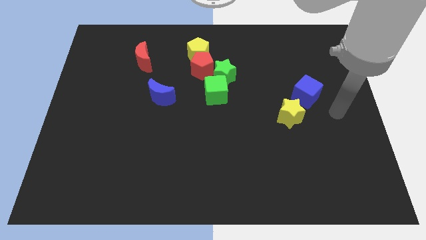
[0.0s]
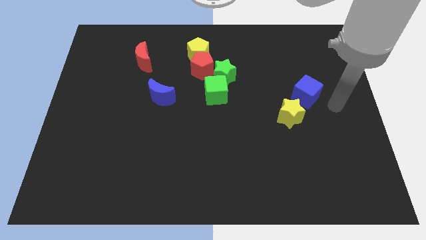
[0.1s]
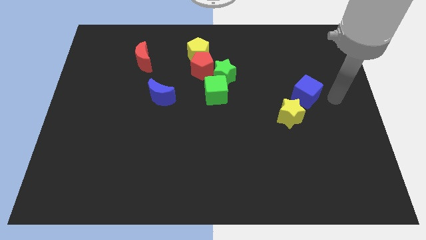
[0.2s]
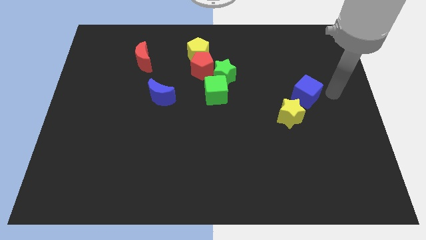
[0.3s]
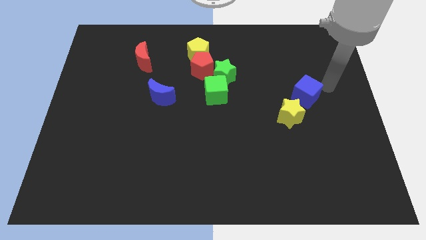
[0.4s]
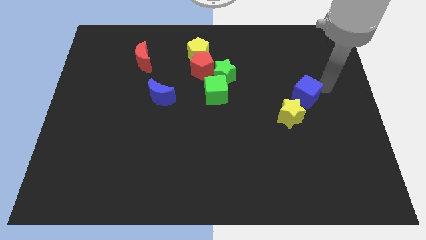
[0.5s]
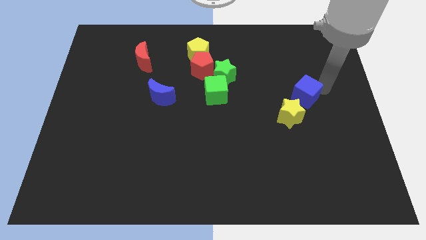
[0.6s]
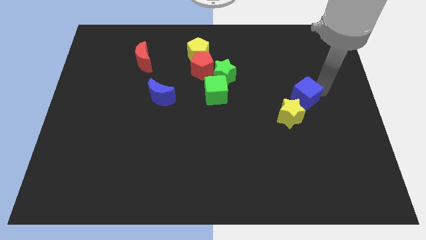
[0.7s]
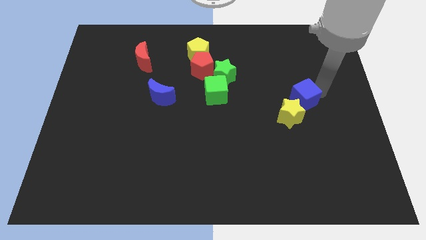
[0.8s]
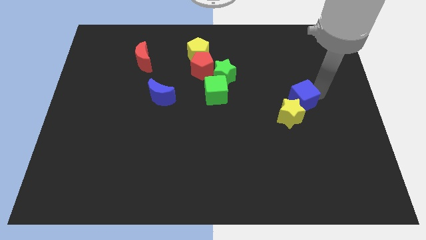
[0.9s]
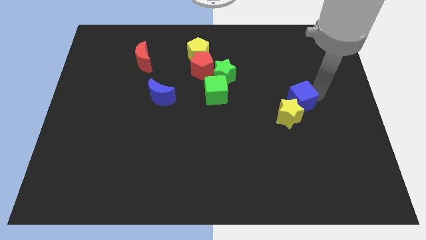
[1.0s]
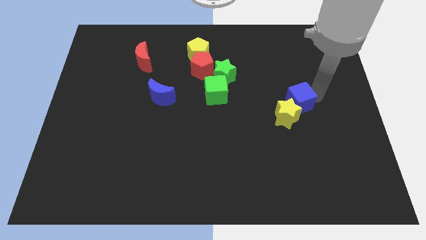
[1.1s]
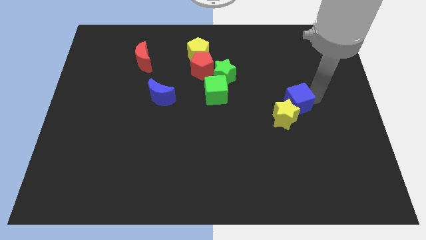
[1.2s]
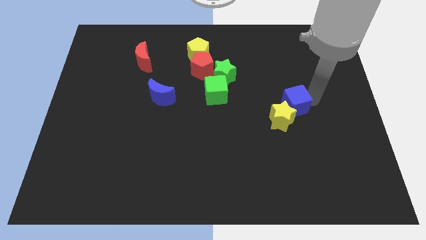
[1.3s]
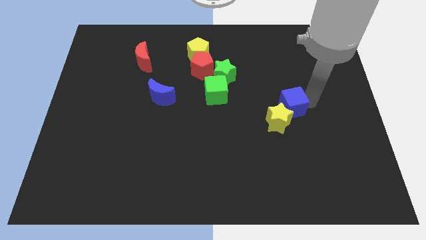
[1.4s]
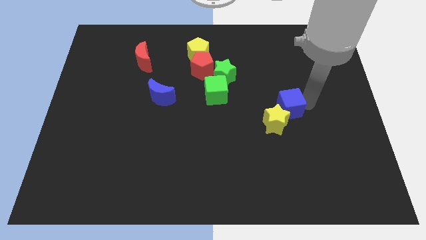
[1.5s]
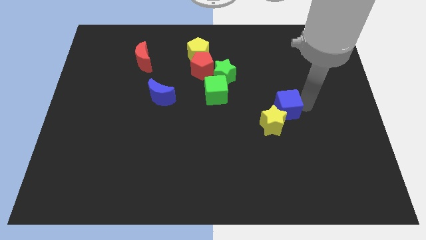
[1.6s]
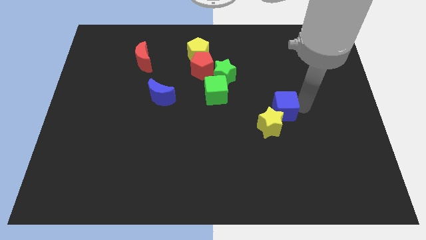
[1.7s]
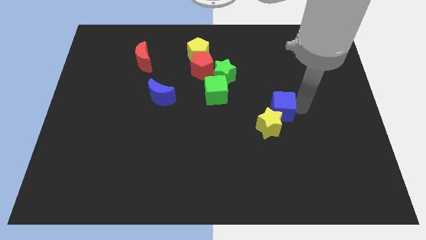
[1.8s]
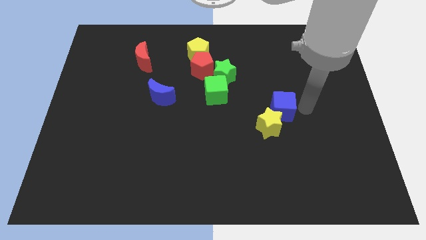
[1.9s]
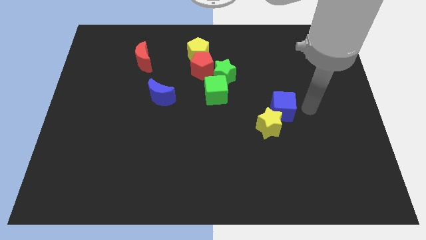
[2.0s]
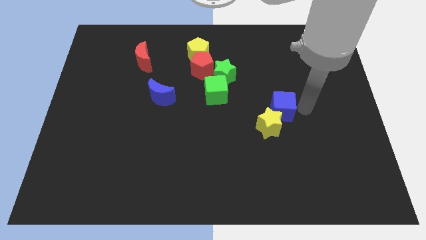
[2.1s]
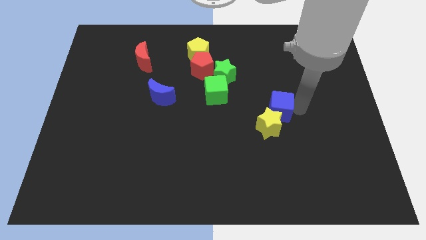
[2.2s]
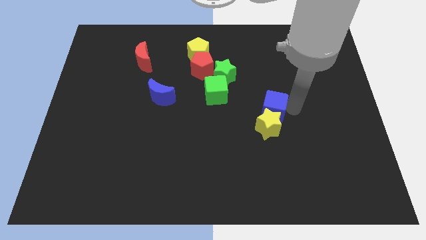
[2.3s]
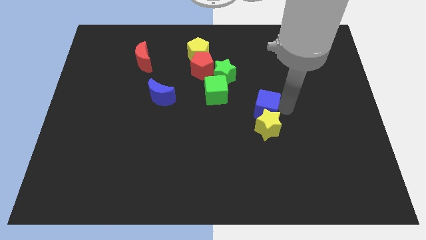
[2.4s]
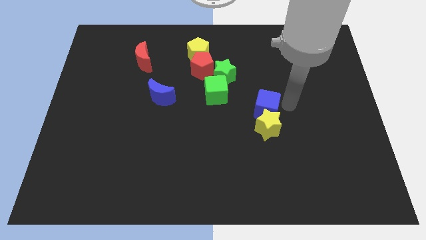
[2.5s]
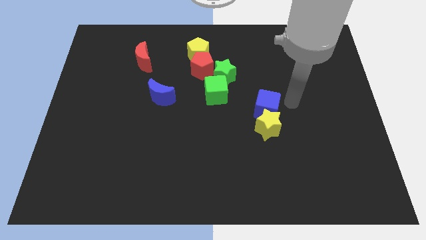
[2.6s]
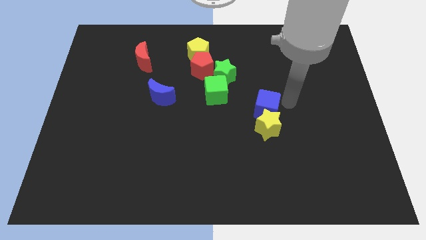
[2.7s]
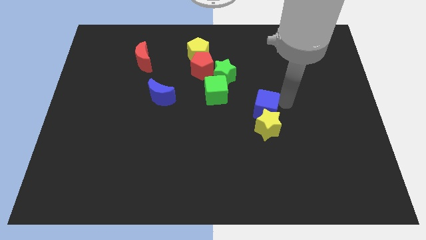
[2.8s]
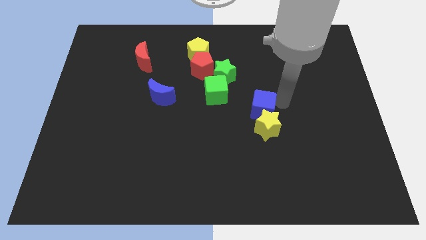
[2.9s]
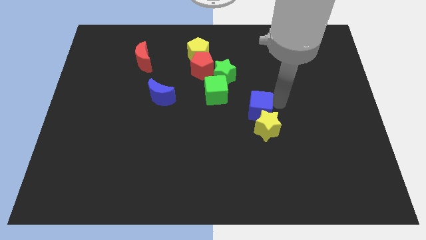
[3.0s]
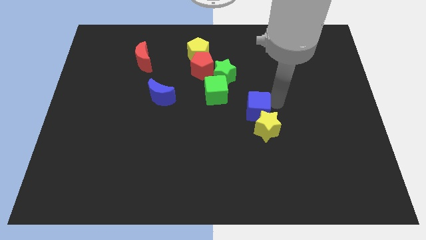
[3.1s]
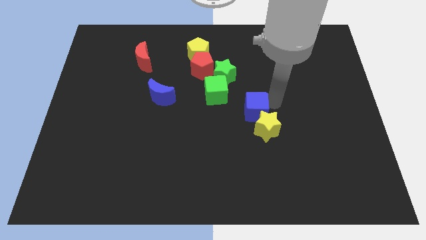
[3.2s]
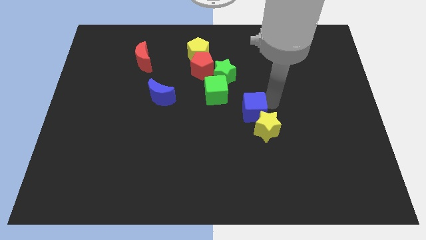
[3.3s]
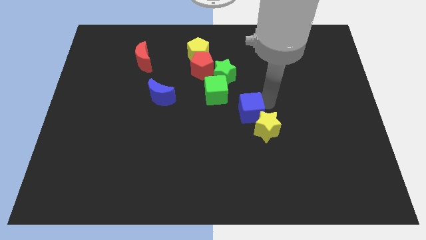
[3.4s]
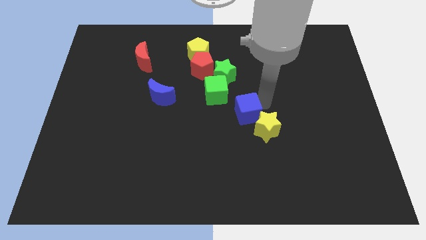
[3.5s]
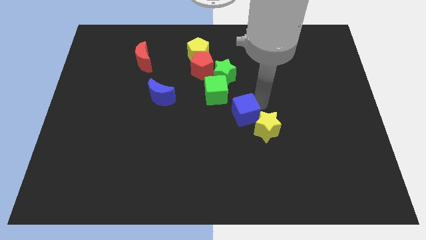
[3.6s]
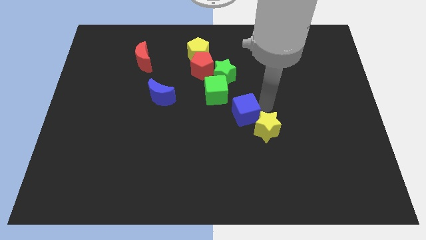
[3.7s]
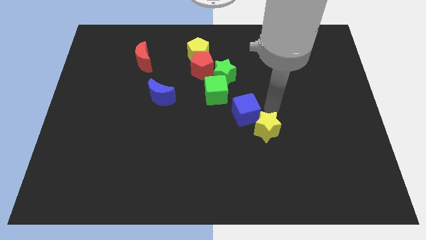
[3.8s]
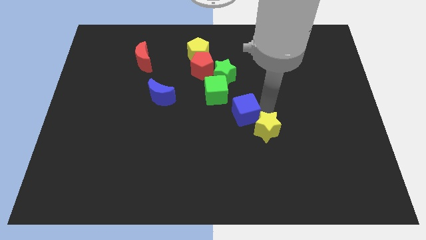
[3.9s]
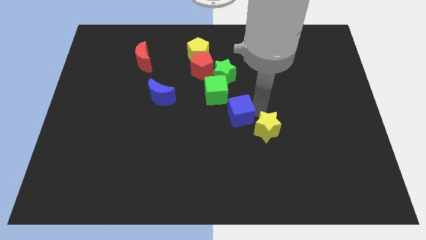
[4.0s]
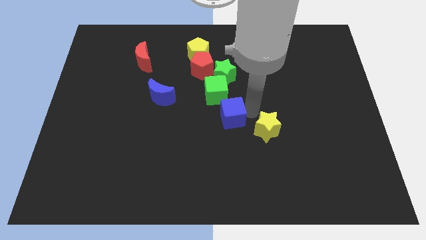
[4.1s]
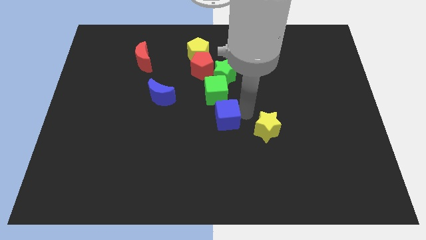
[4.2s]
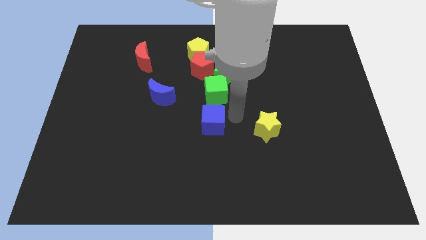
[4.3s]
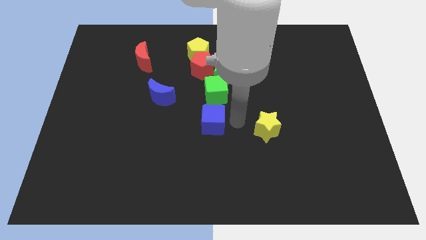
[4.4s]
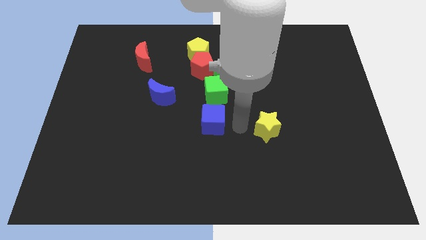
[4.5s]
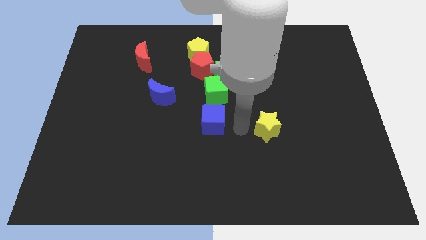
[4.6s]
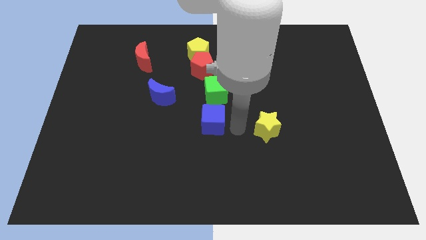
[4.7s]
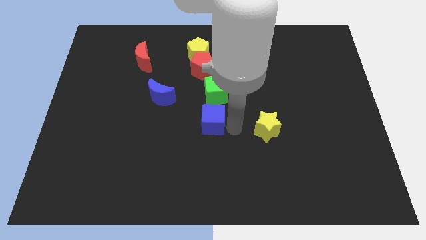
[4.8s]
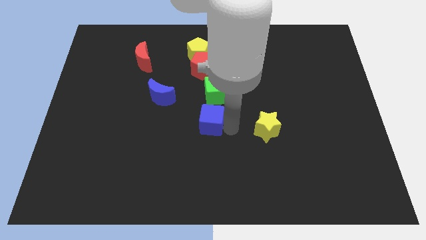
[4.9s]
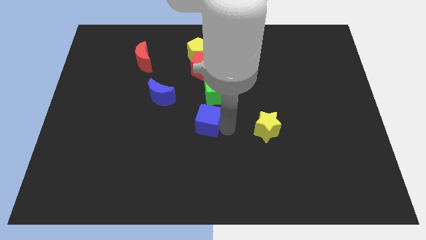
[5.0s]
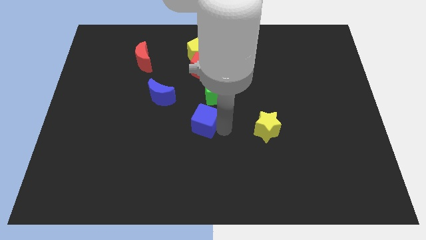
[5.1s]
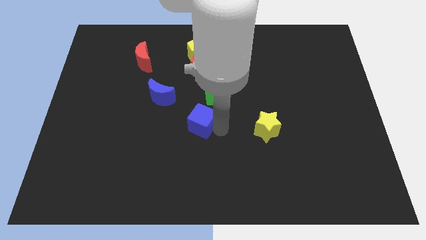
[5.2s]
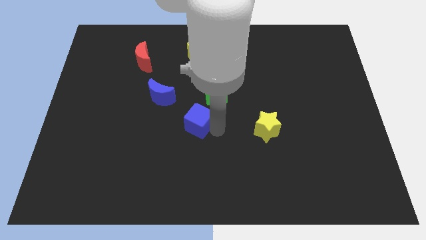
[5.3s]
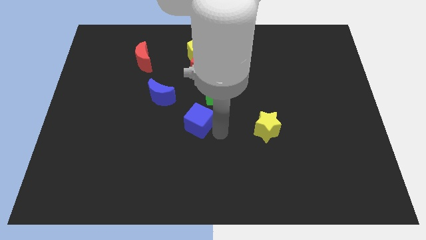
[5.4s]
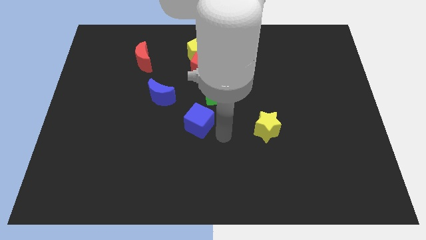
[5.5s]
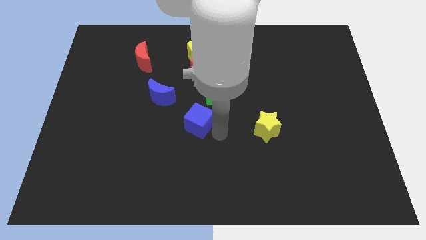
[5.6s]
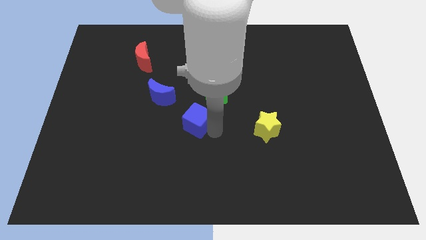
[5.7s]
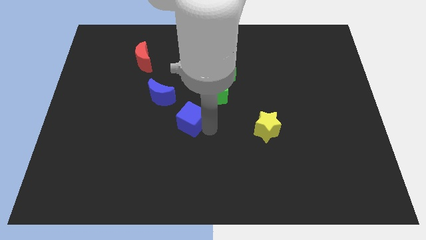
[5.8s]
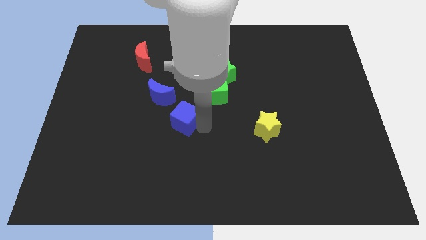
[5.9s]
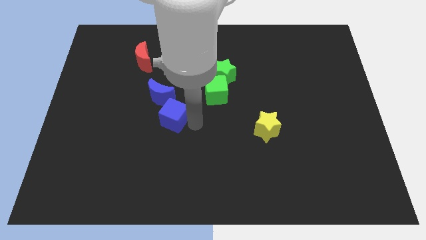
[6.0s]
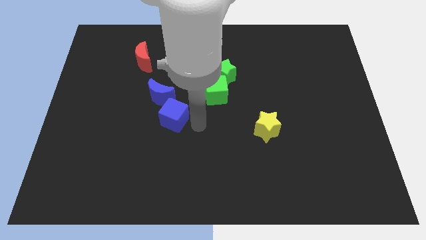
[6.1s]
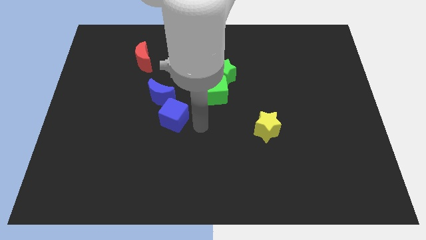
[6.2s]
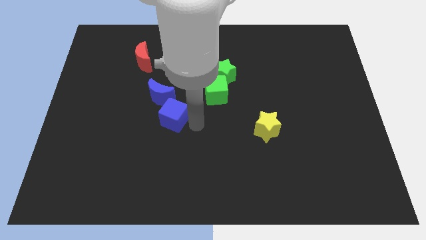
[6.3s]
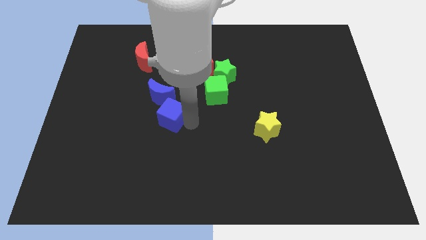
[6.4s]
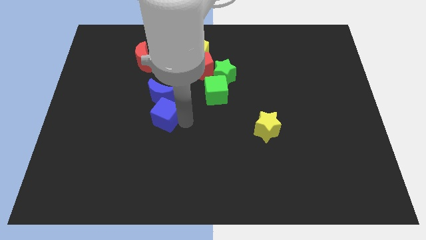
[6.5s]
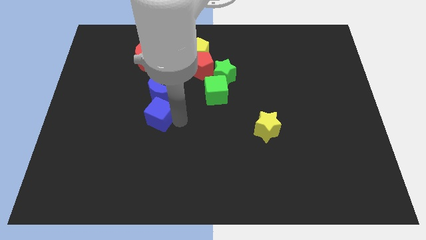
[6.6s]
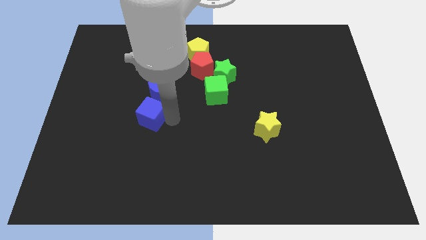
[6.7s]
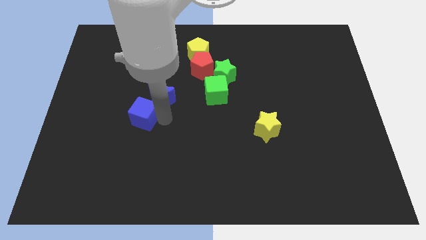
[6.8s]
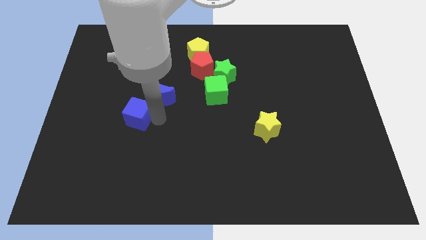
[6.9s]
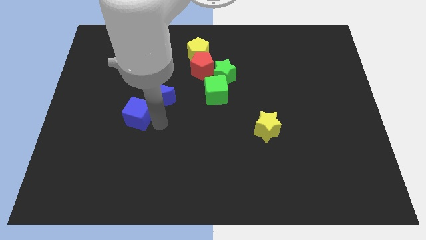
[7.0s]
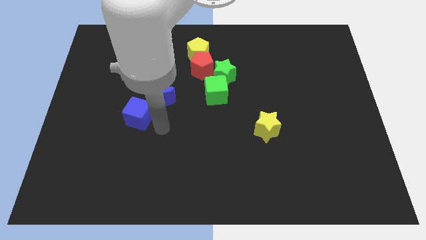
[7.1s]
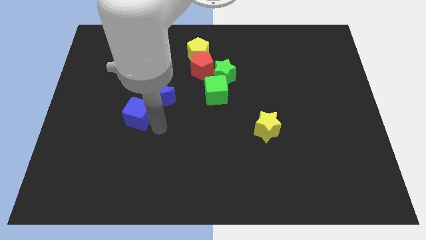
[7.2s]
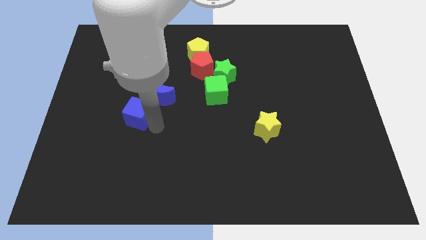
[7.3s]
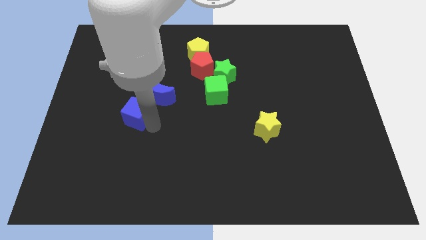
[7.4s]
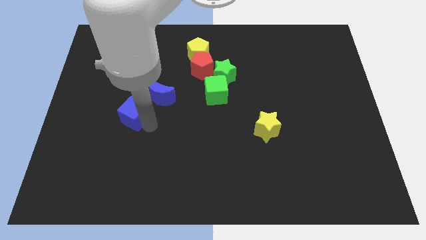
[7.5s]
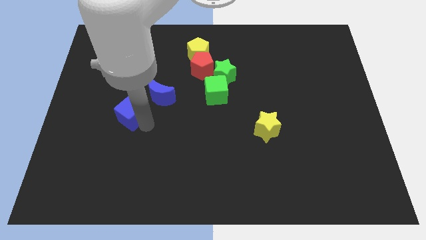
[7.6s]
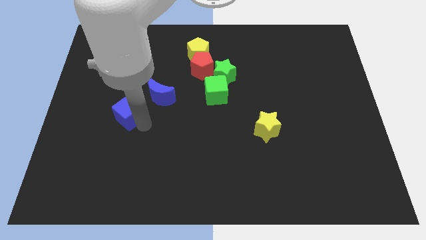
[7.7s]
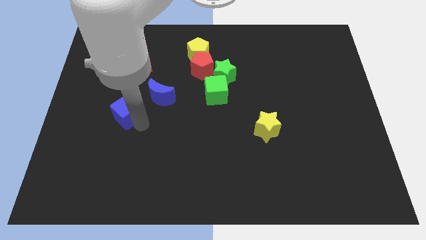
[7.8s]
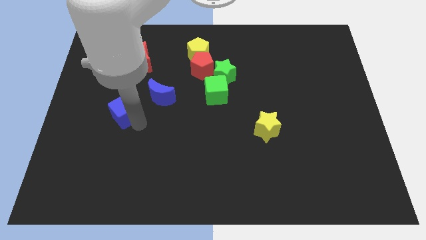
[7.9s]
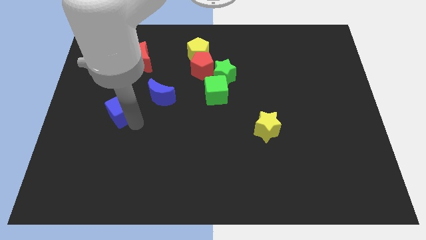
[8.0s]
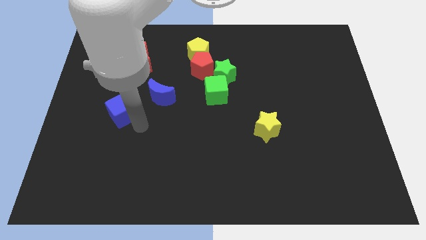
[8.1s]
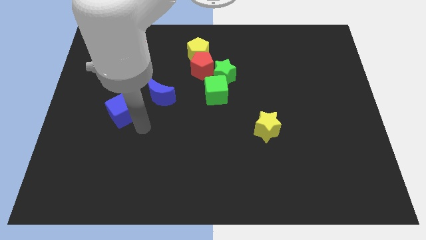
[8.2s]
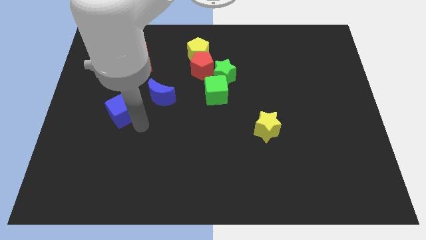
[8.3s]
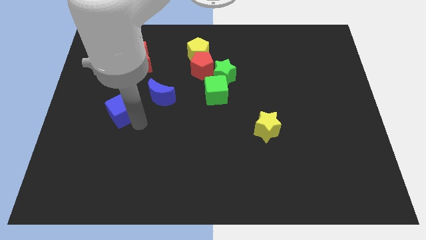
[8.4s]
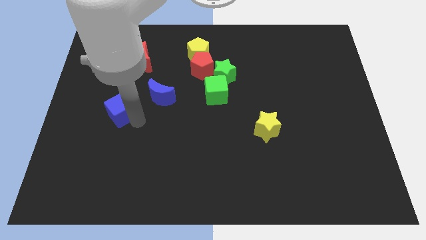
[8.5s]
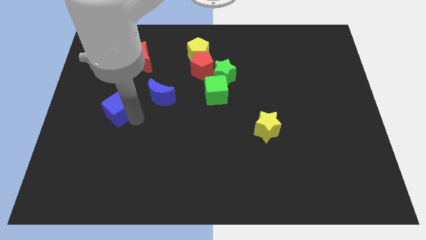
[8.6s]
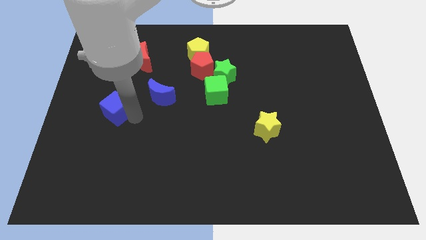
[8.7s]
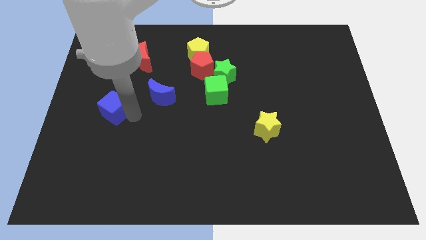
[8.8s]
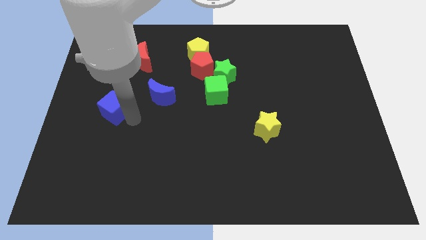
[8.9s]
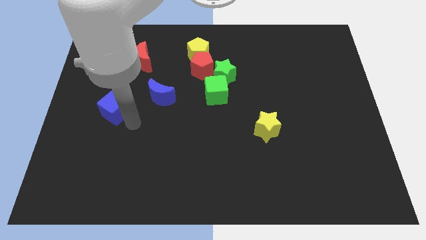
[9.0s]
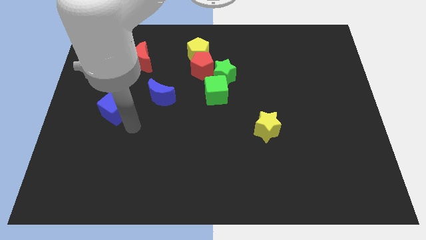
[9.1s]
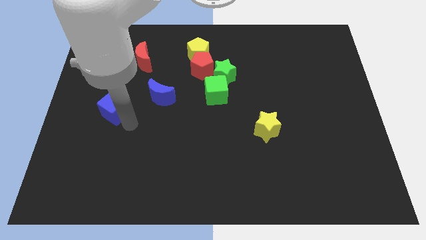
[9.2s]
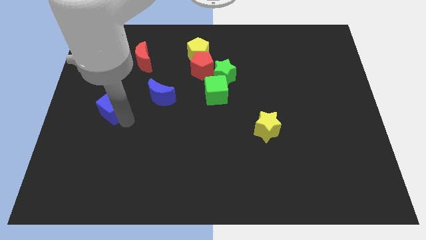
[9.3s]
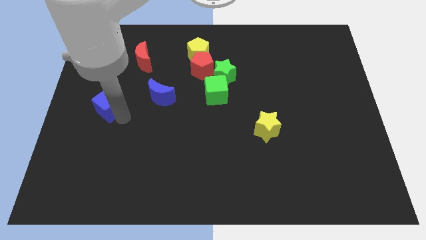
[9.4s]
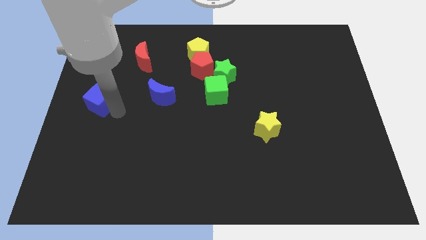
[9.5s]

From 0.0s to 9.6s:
put the blue cube to the left side
